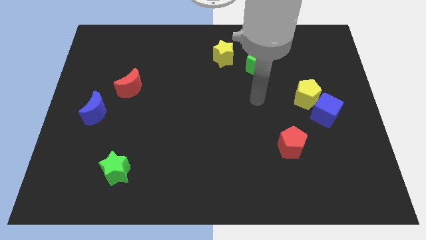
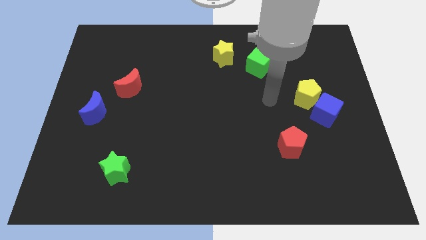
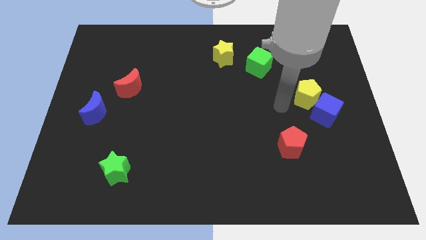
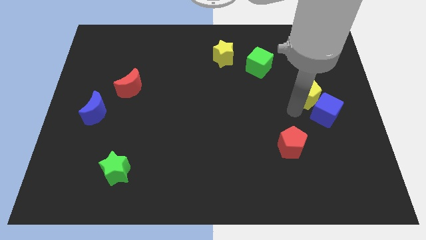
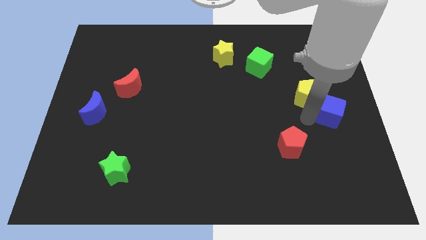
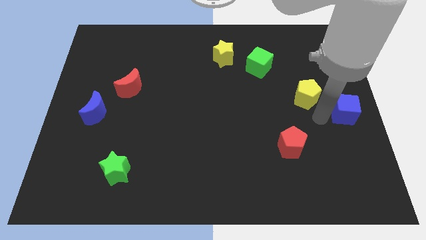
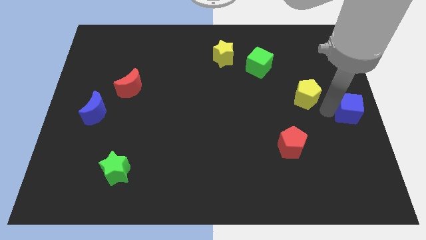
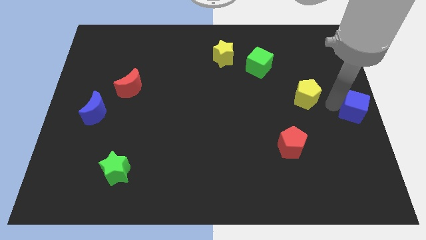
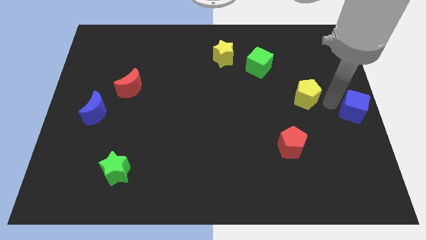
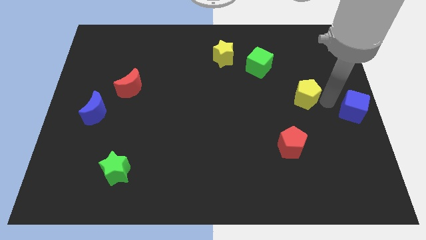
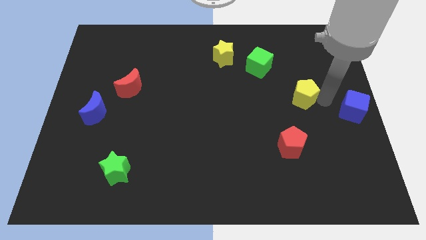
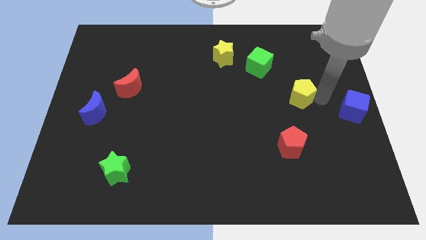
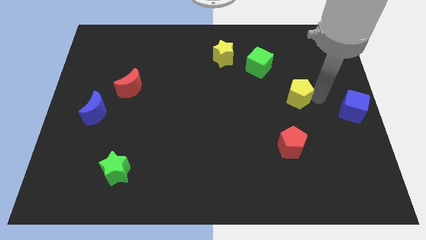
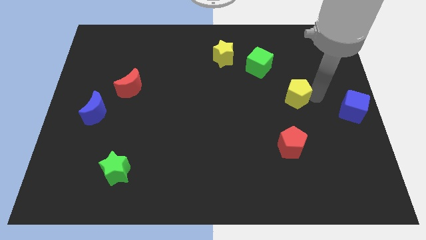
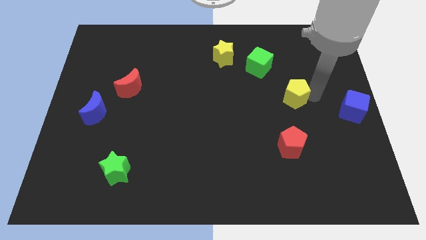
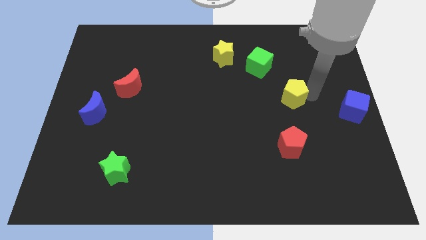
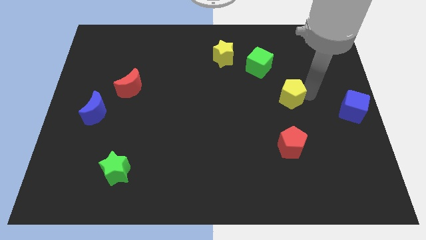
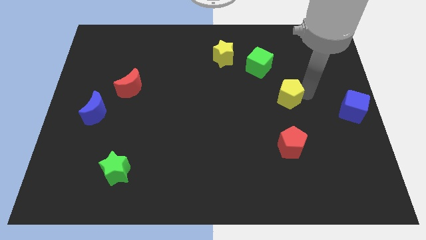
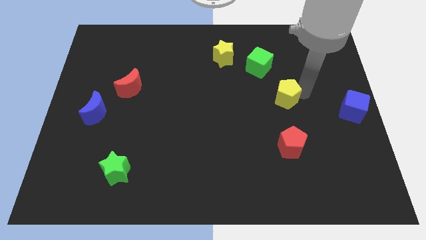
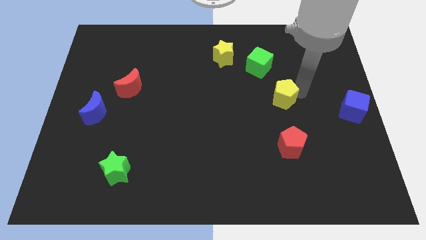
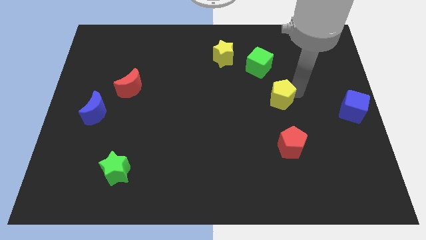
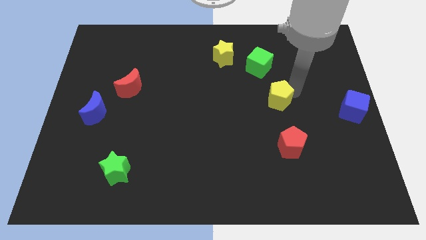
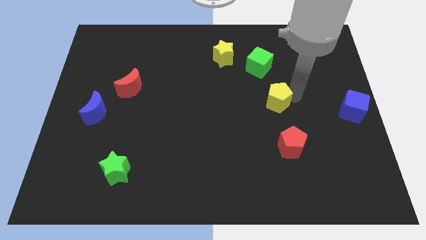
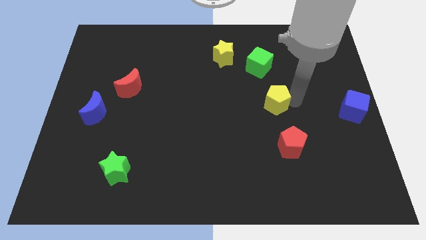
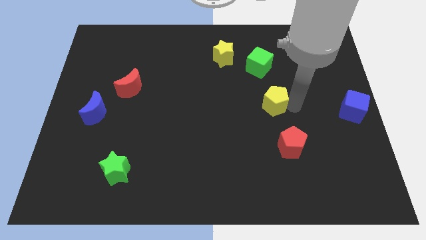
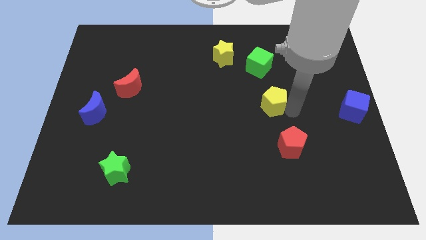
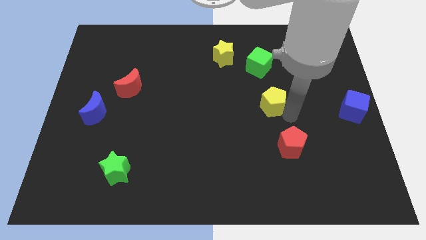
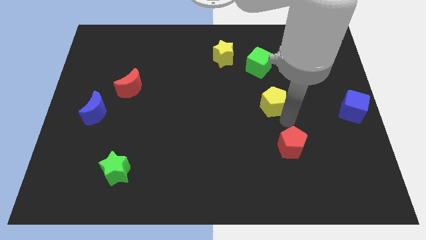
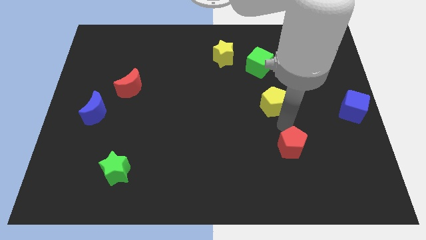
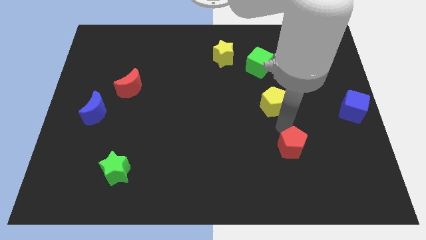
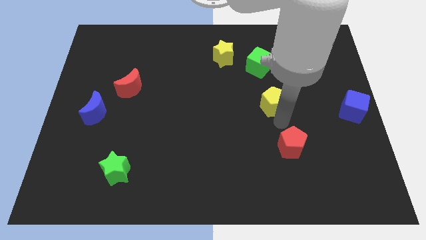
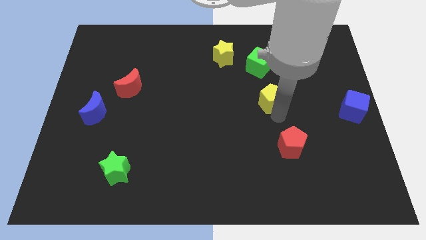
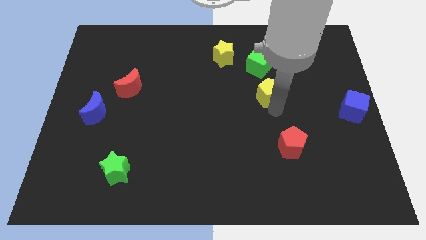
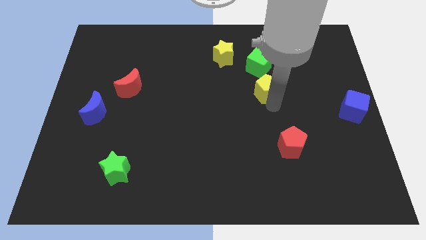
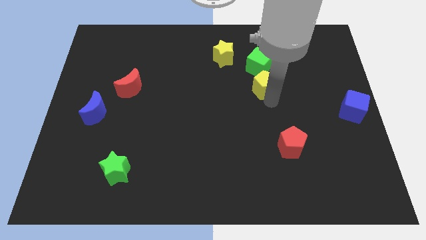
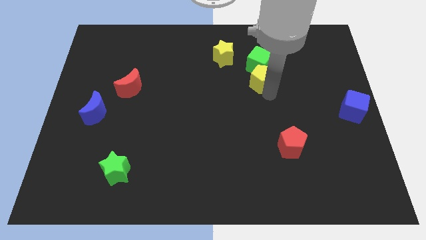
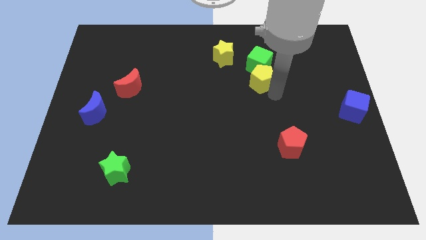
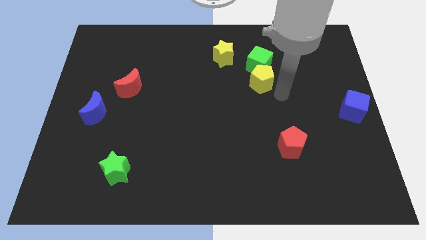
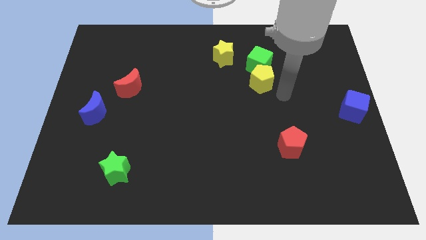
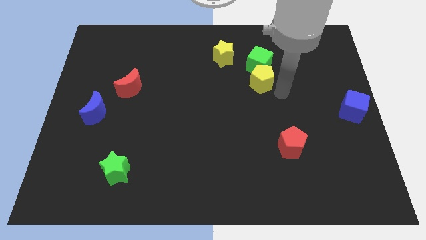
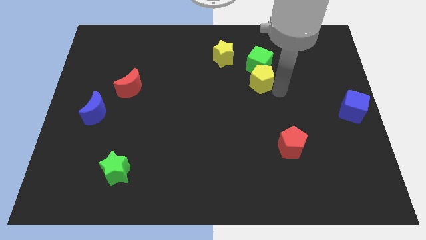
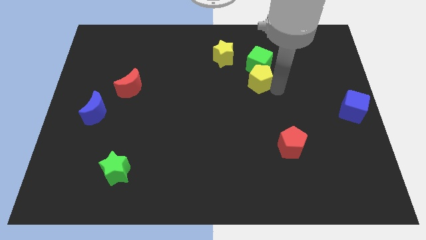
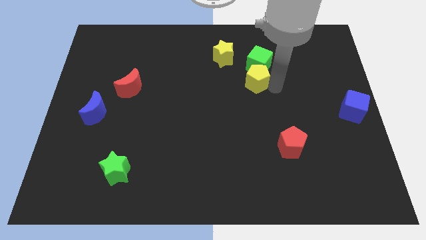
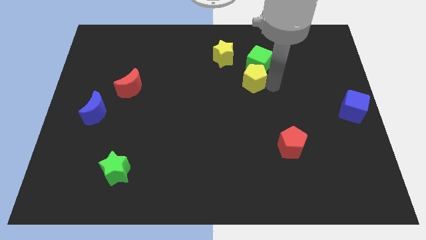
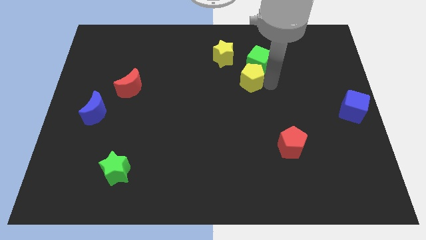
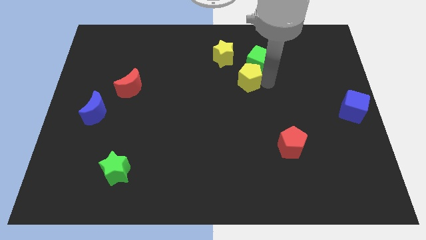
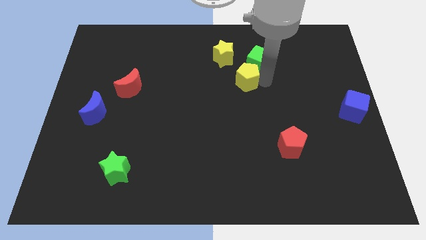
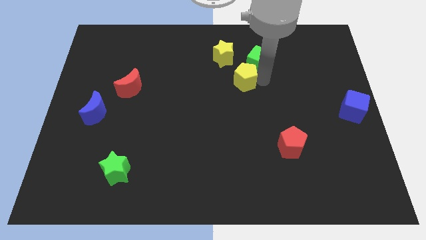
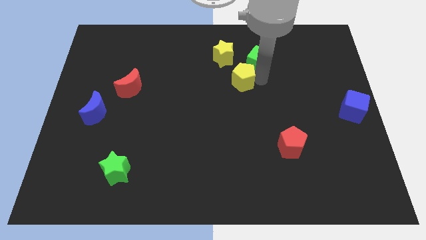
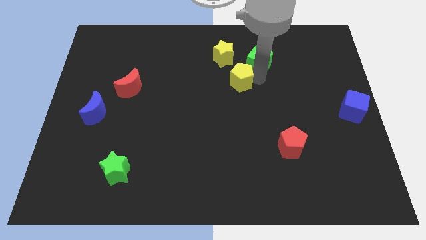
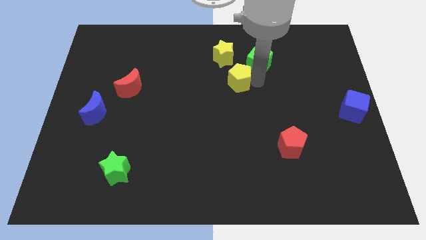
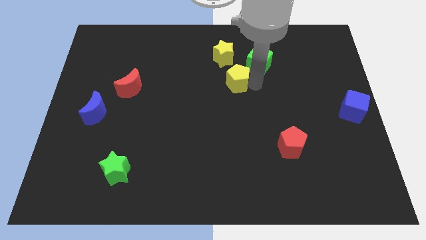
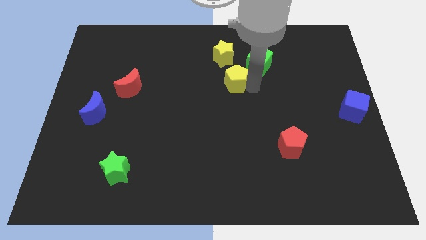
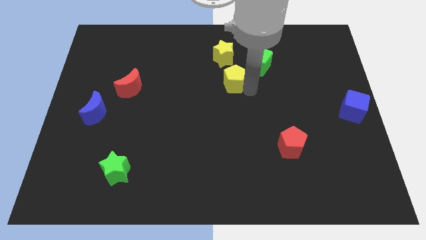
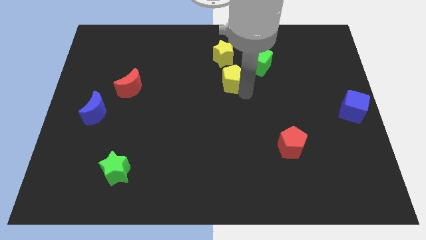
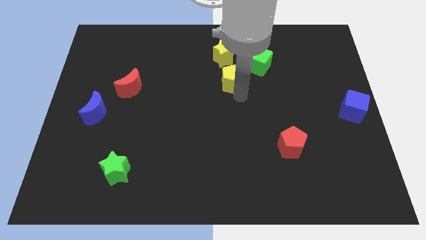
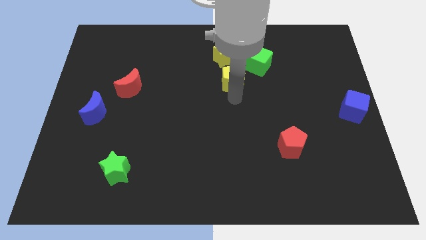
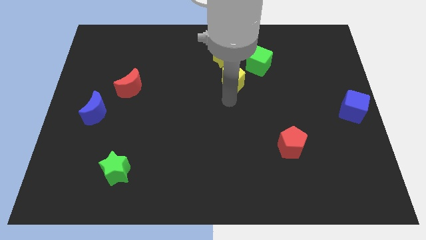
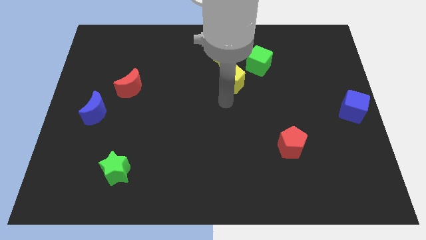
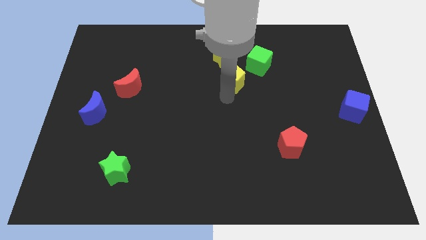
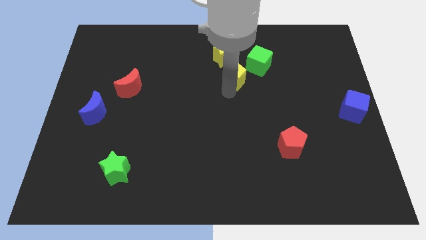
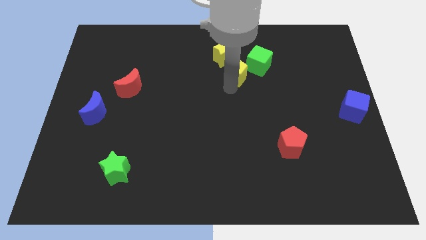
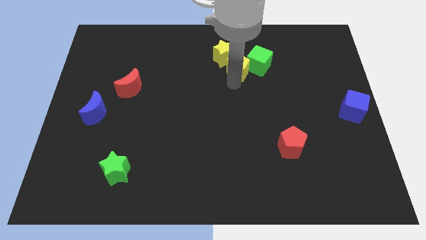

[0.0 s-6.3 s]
put the yellow pentagon close to the yellow star

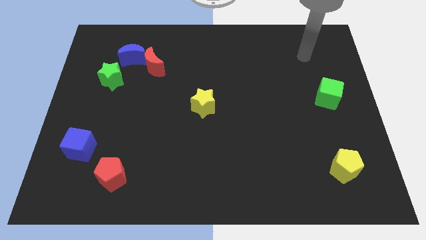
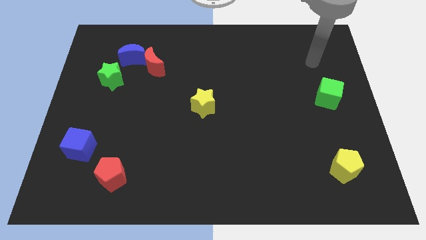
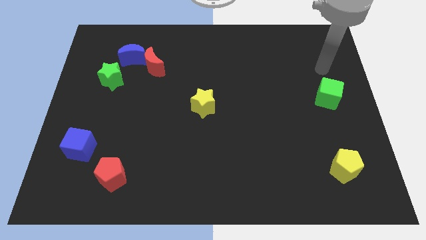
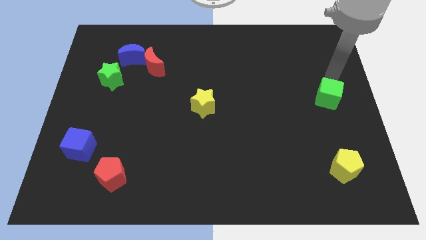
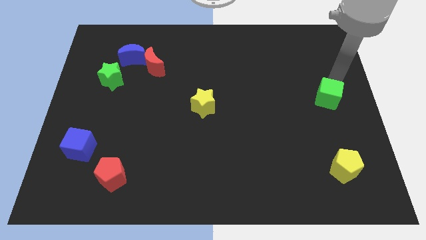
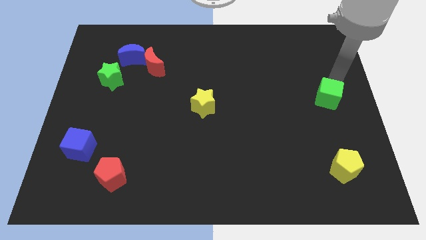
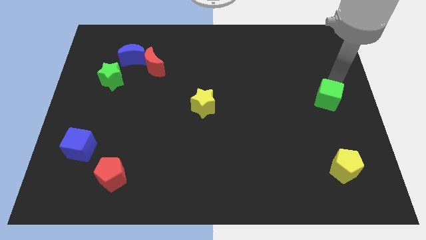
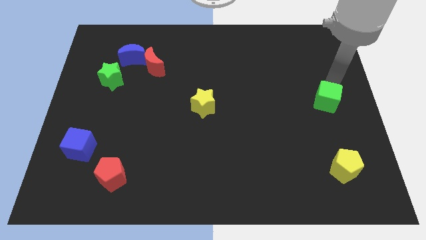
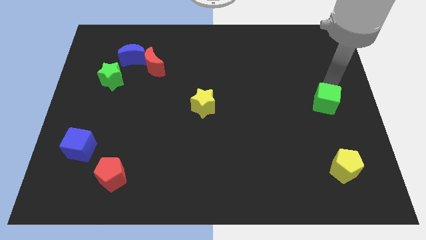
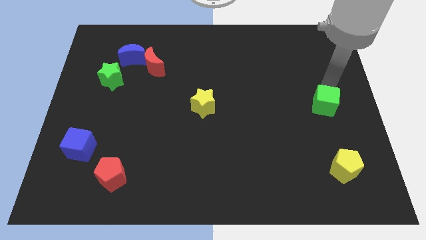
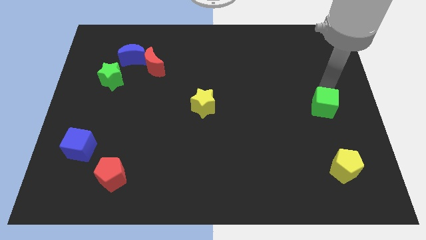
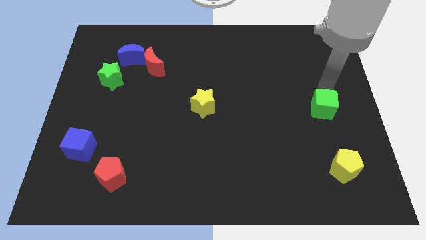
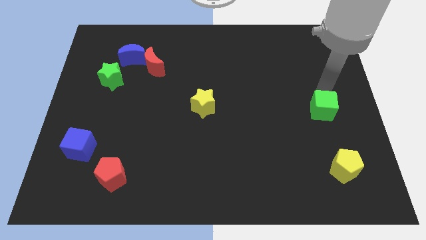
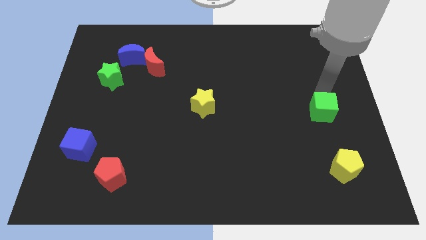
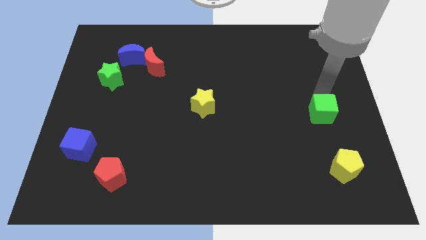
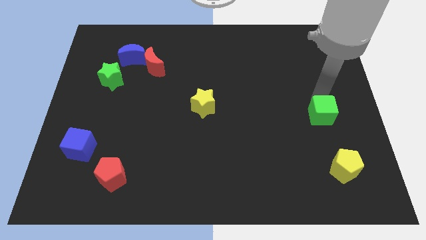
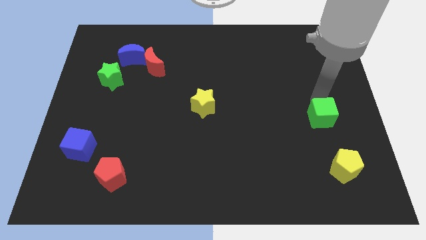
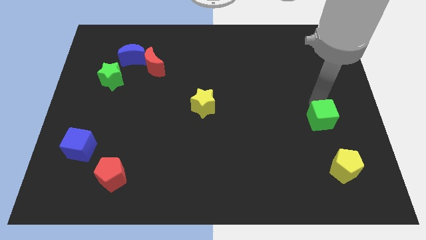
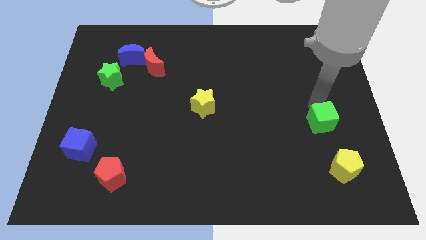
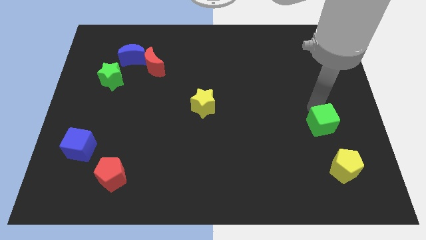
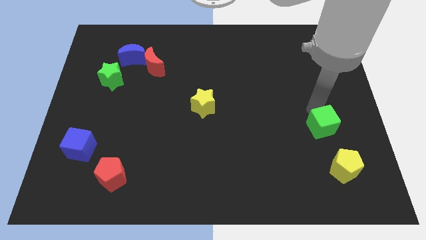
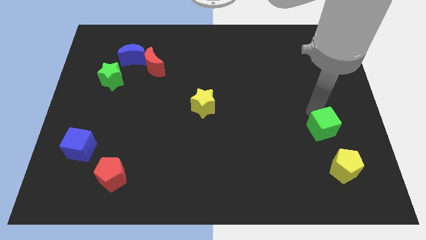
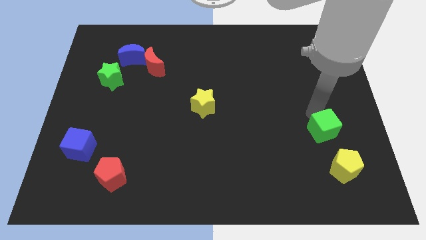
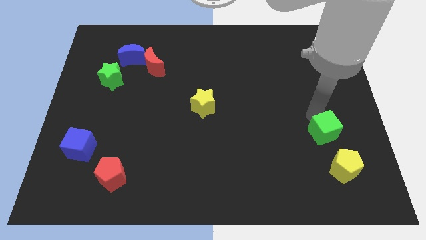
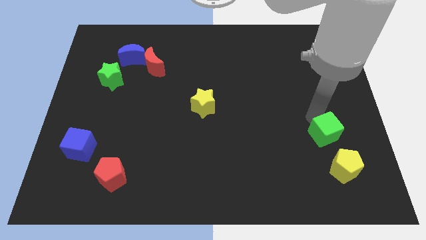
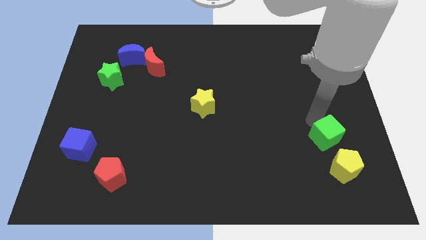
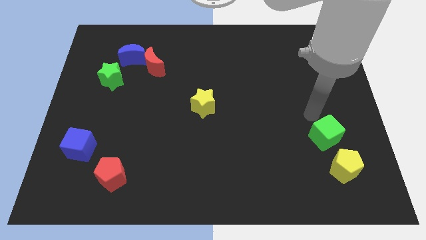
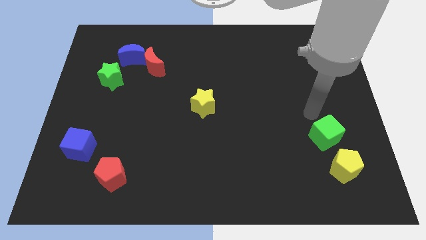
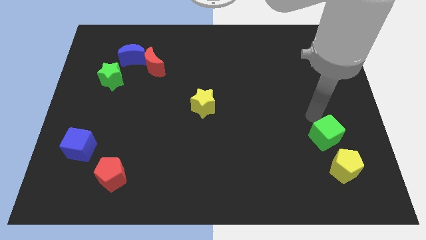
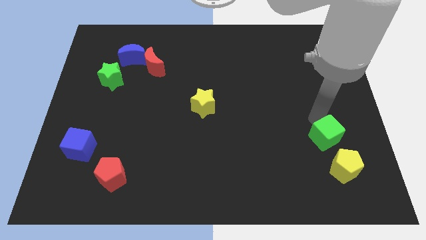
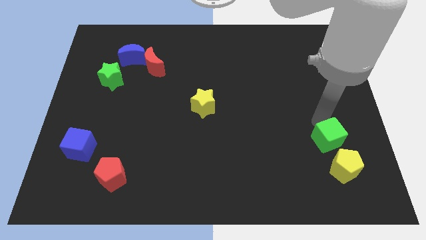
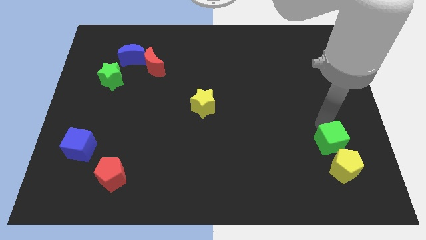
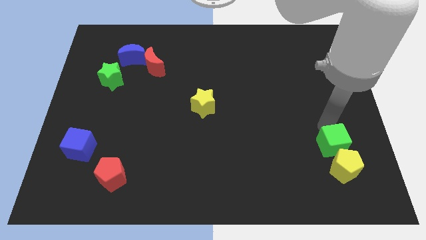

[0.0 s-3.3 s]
slide the green cube to the yellow pentagon
